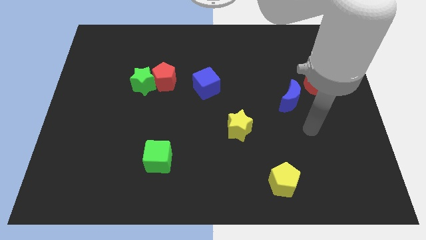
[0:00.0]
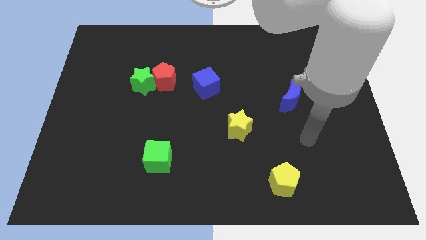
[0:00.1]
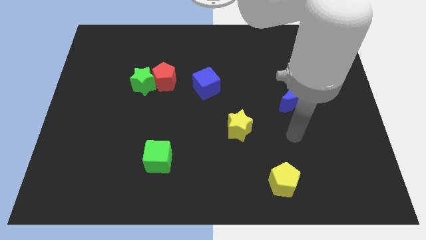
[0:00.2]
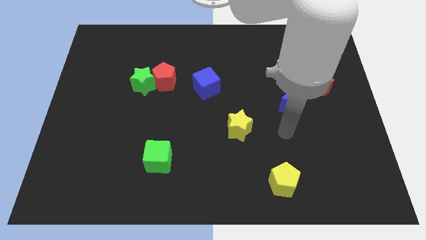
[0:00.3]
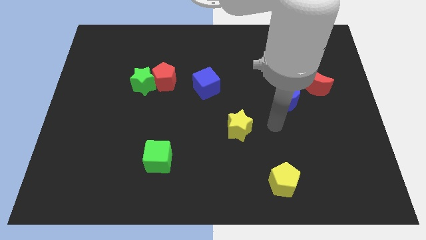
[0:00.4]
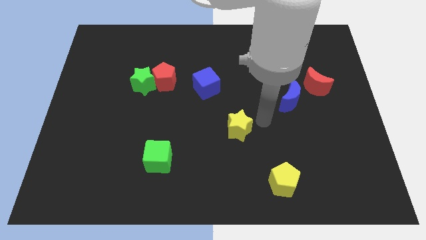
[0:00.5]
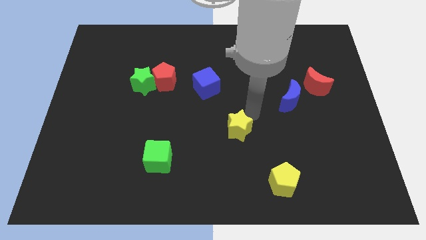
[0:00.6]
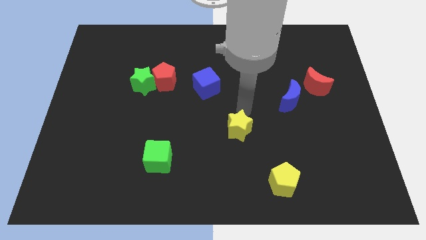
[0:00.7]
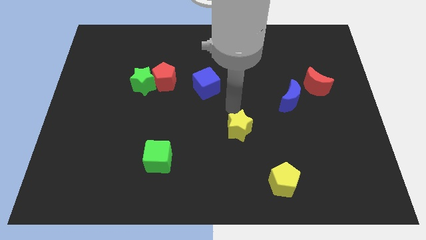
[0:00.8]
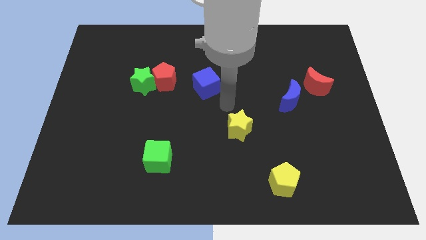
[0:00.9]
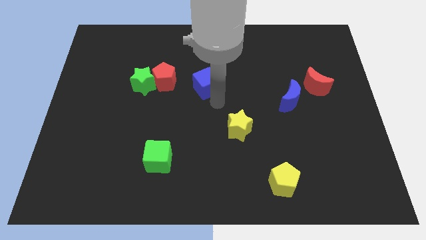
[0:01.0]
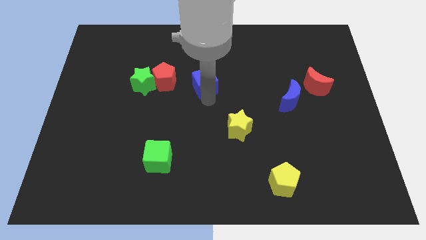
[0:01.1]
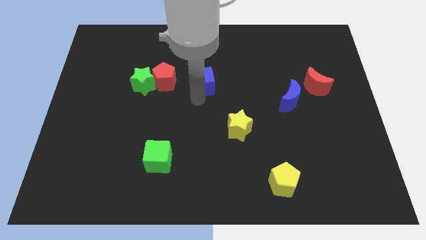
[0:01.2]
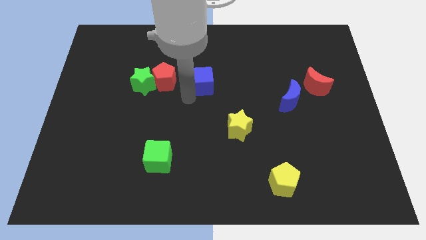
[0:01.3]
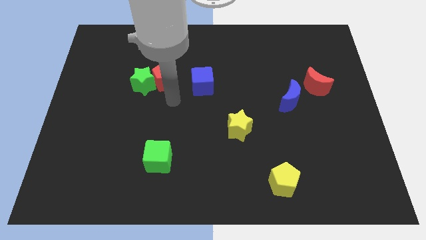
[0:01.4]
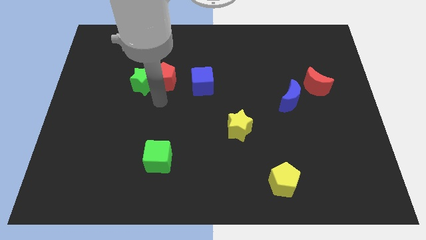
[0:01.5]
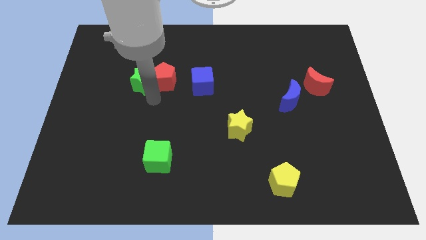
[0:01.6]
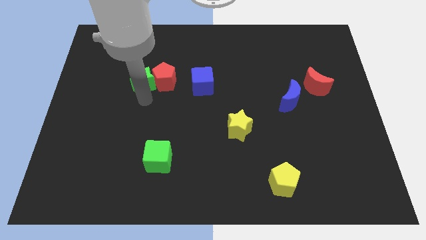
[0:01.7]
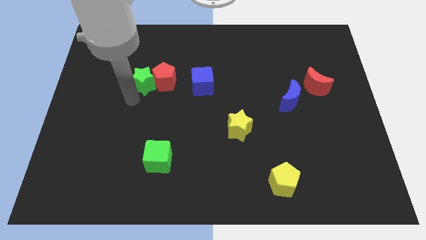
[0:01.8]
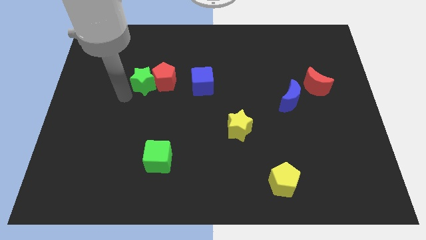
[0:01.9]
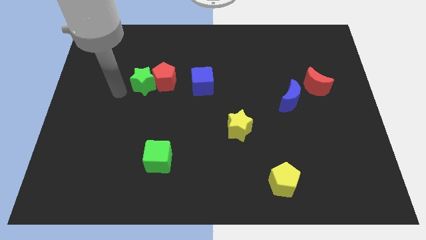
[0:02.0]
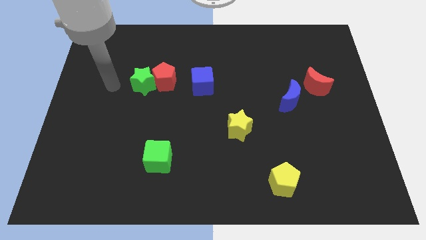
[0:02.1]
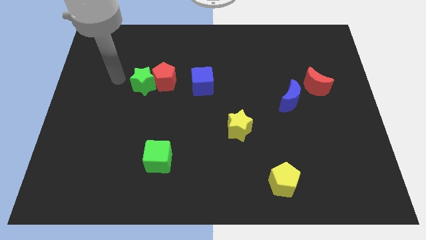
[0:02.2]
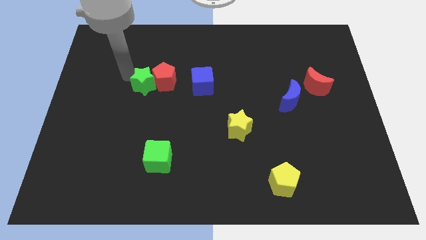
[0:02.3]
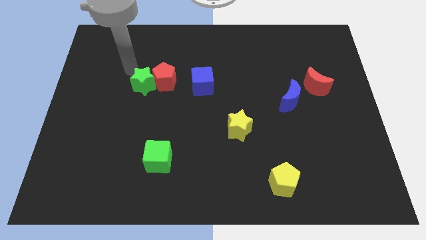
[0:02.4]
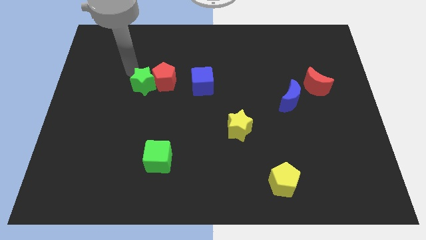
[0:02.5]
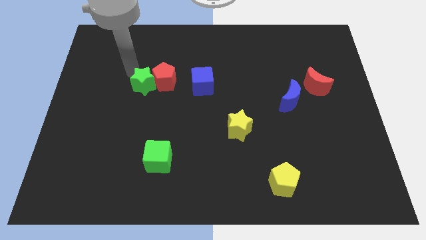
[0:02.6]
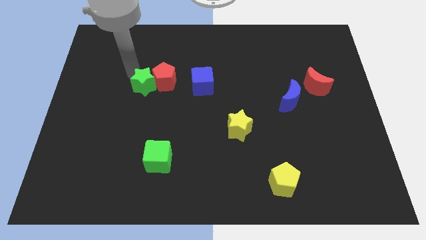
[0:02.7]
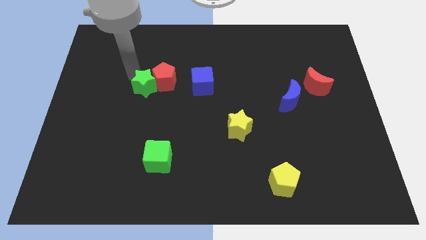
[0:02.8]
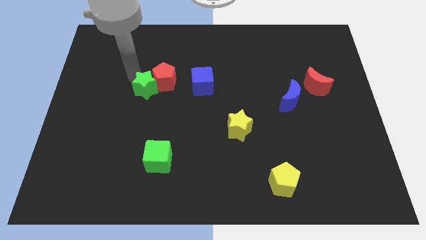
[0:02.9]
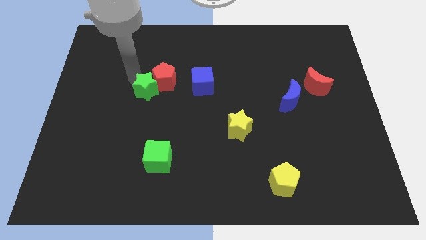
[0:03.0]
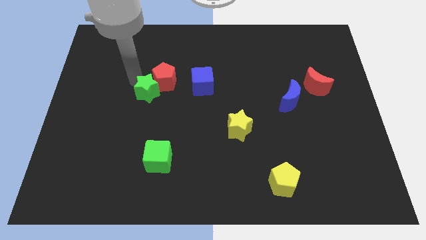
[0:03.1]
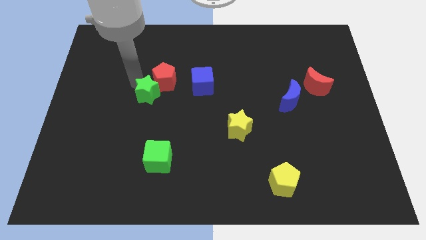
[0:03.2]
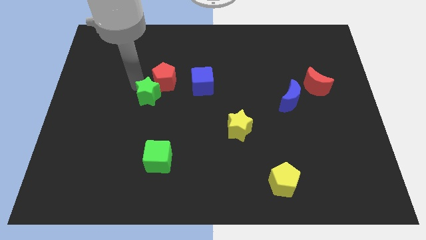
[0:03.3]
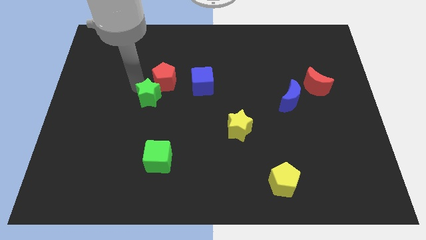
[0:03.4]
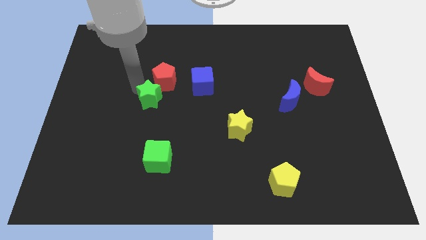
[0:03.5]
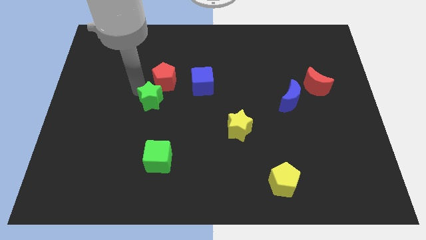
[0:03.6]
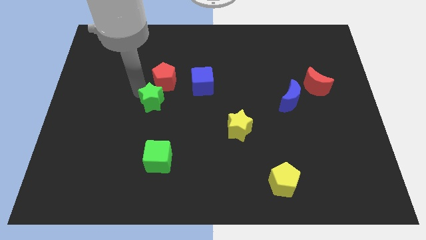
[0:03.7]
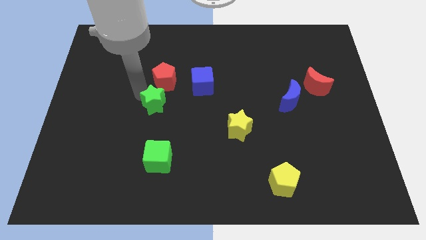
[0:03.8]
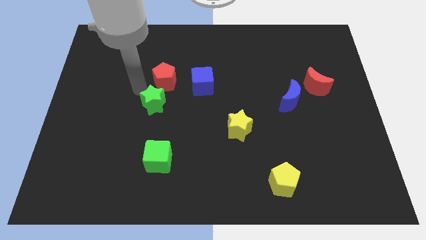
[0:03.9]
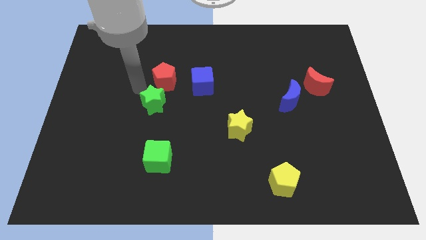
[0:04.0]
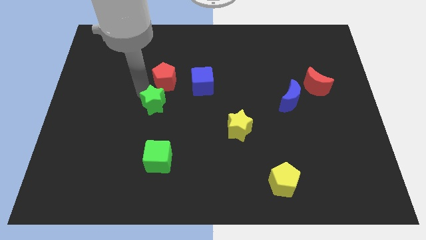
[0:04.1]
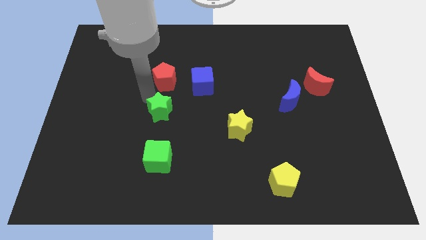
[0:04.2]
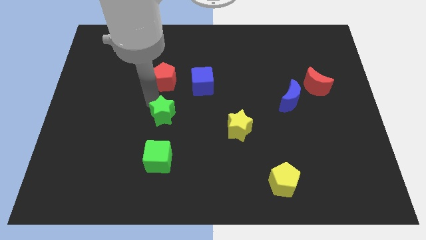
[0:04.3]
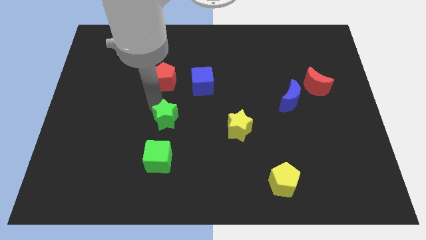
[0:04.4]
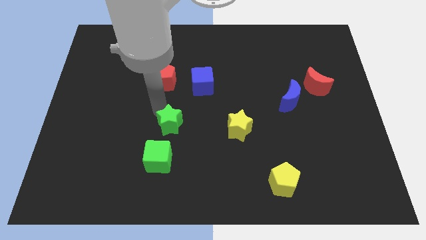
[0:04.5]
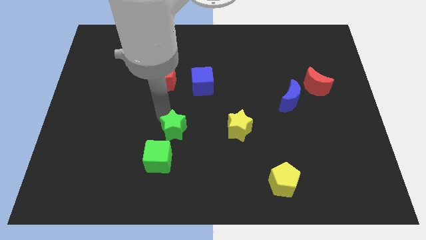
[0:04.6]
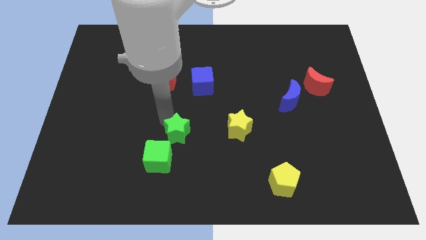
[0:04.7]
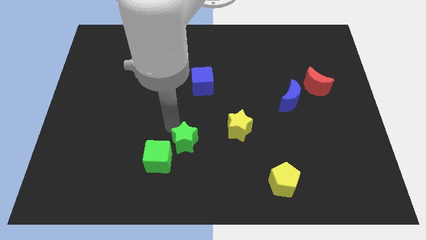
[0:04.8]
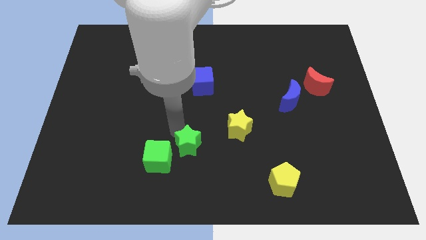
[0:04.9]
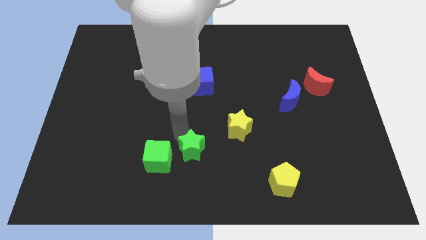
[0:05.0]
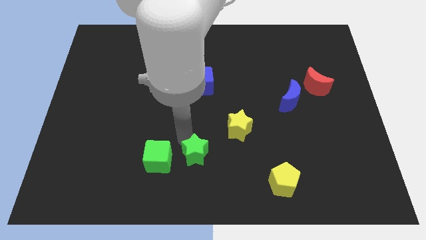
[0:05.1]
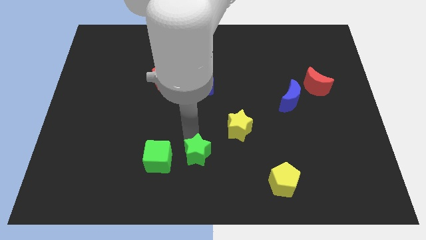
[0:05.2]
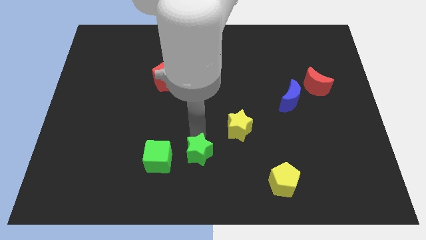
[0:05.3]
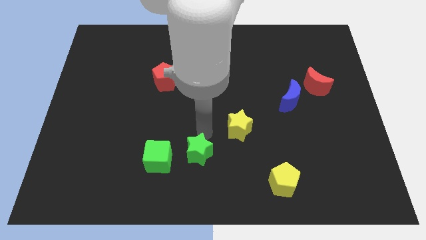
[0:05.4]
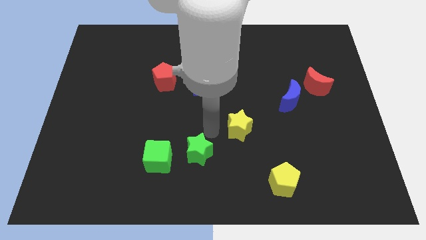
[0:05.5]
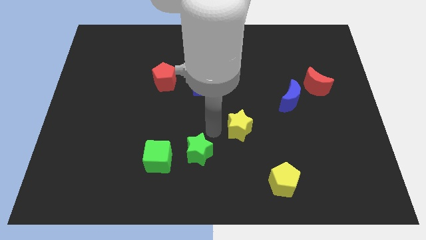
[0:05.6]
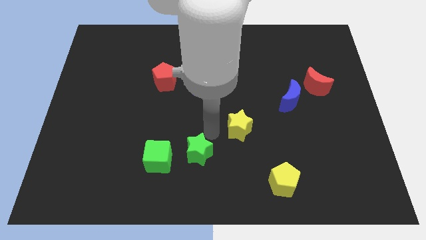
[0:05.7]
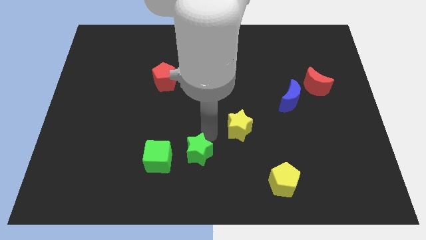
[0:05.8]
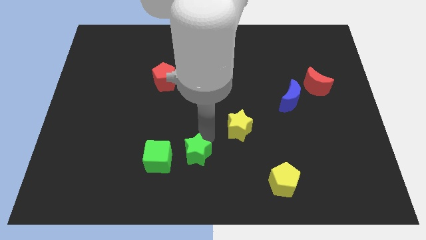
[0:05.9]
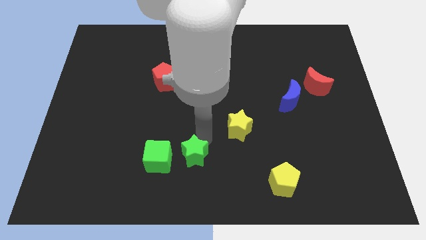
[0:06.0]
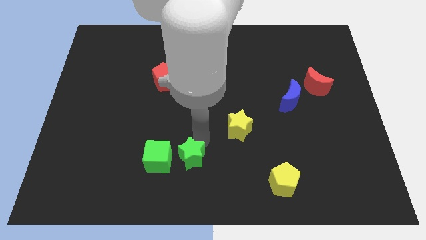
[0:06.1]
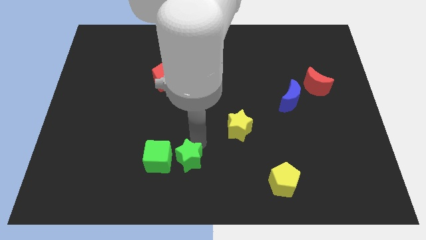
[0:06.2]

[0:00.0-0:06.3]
put the green star diagonally down and to the right of the green cube

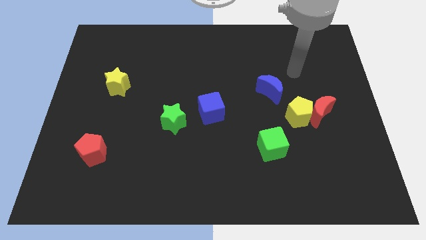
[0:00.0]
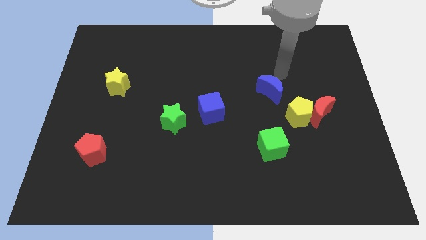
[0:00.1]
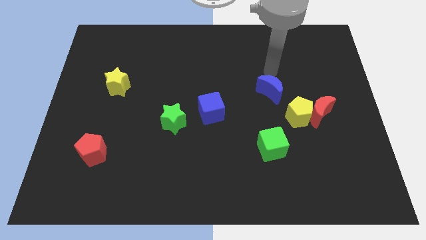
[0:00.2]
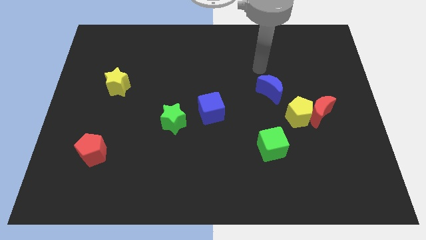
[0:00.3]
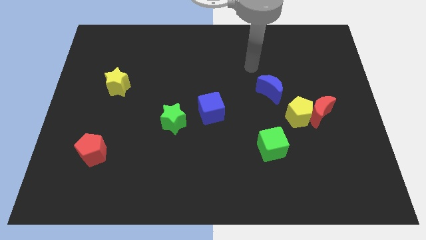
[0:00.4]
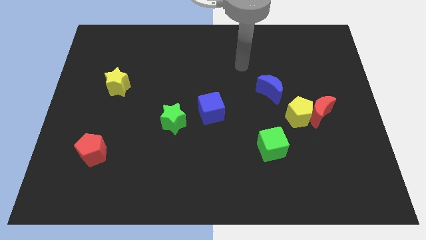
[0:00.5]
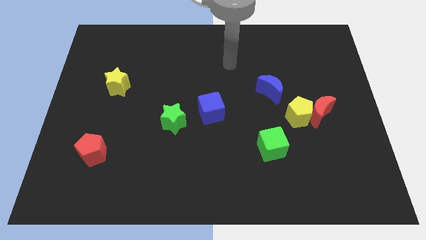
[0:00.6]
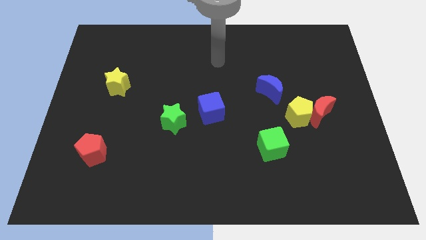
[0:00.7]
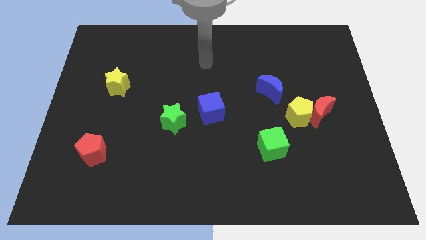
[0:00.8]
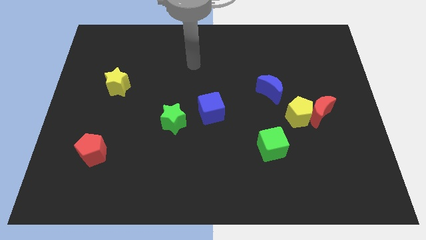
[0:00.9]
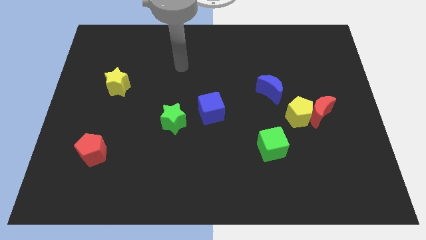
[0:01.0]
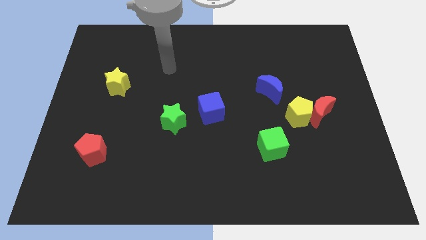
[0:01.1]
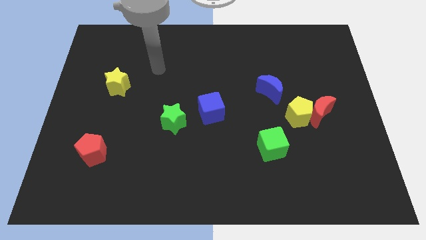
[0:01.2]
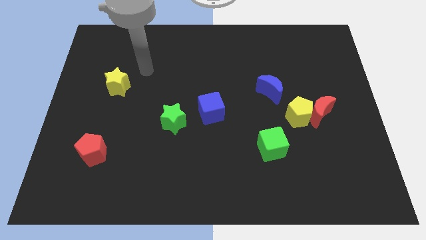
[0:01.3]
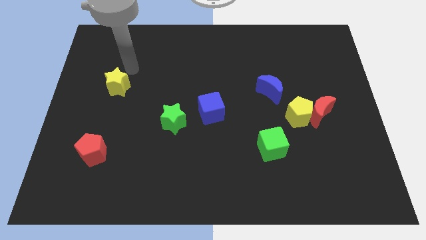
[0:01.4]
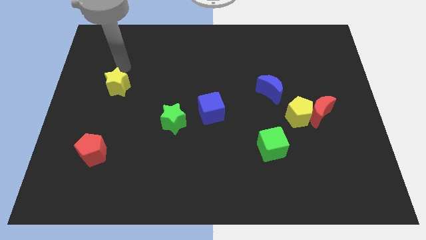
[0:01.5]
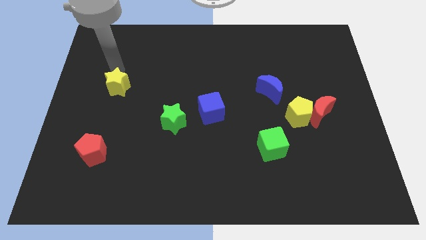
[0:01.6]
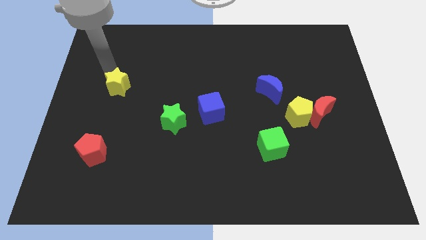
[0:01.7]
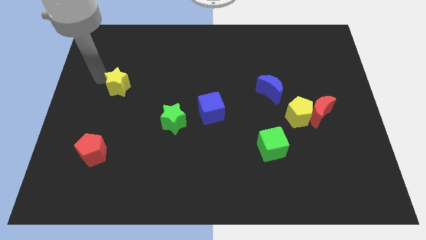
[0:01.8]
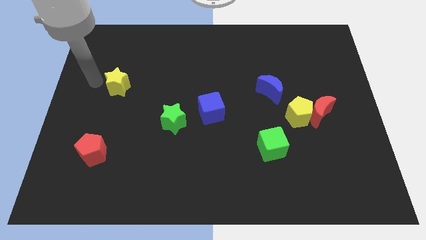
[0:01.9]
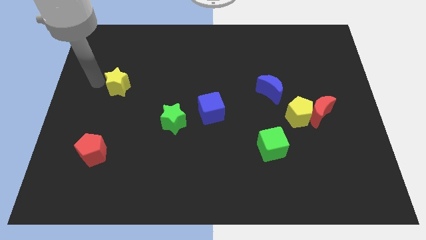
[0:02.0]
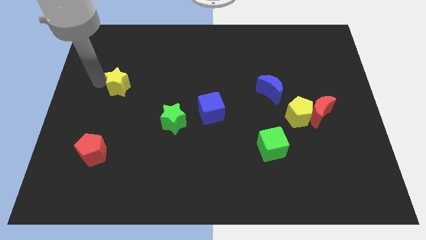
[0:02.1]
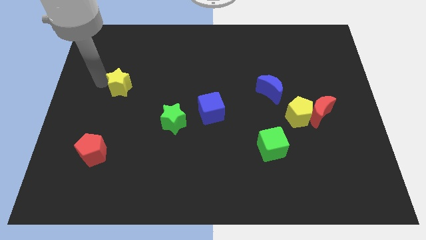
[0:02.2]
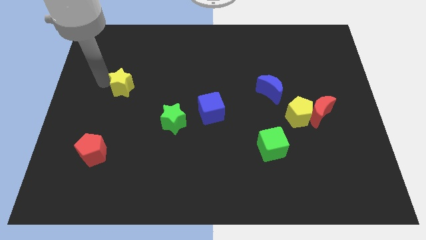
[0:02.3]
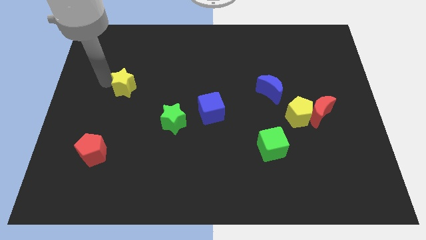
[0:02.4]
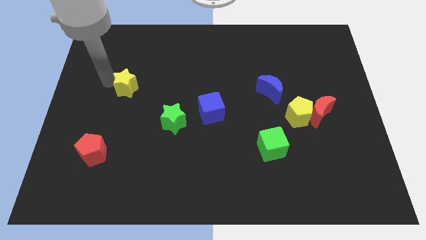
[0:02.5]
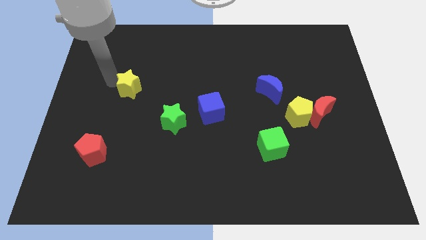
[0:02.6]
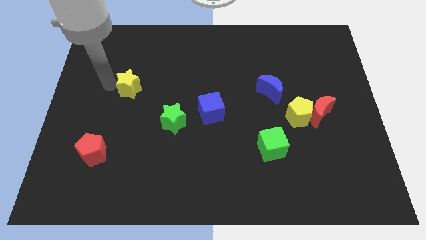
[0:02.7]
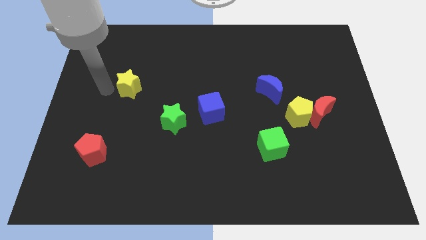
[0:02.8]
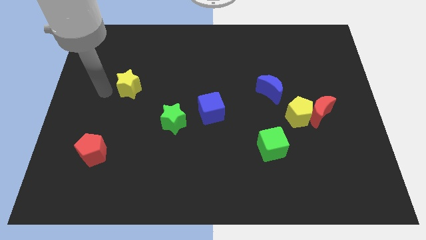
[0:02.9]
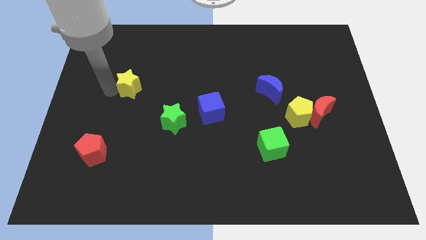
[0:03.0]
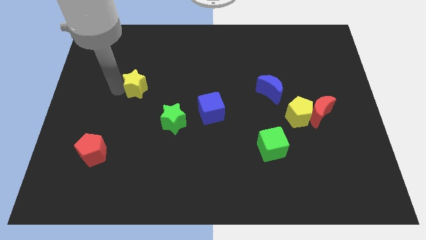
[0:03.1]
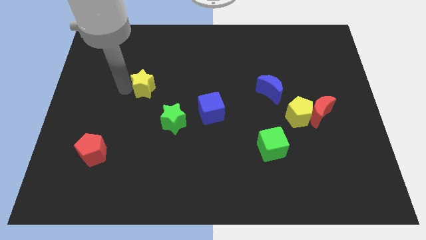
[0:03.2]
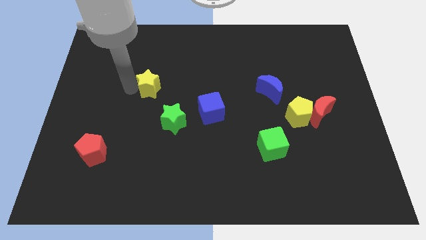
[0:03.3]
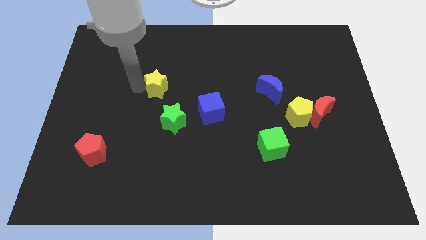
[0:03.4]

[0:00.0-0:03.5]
push the yellow star above the green star
